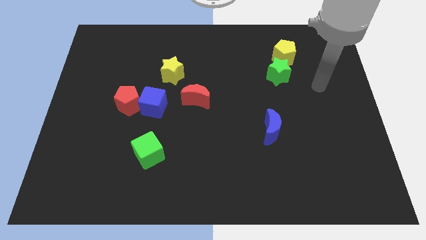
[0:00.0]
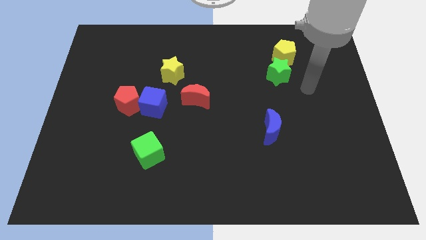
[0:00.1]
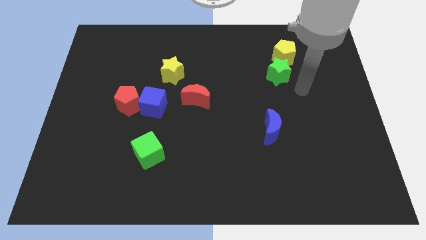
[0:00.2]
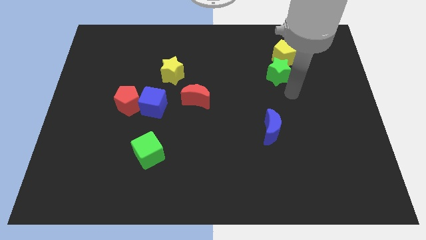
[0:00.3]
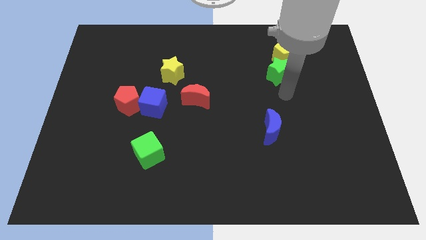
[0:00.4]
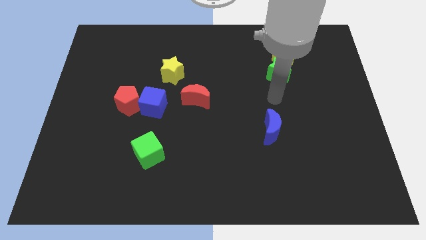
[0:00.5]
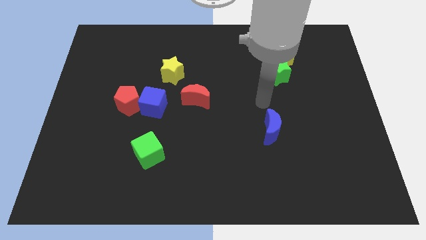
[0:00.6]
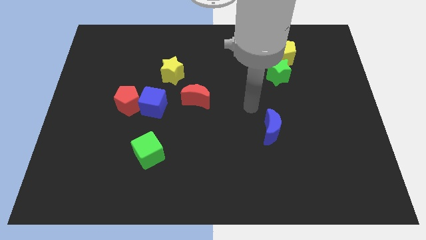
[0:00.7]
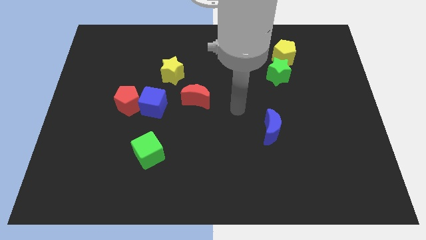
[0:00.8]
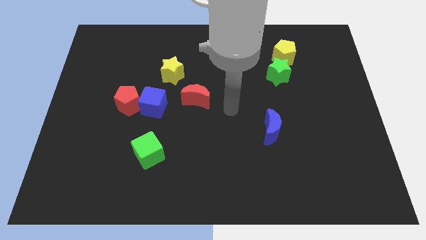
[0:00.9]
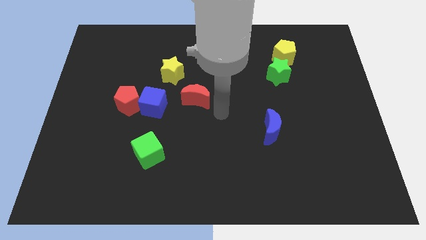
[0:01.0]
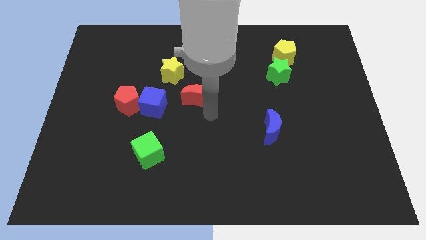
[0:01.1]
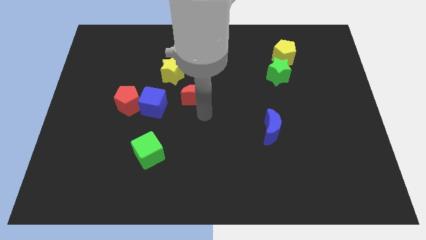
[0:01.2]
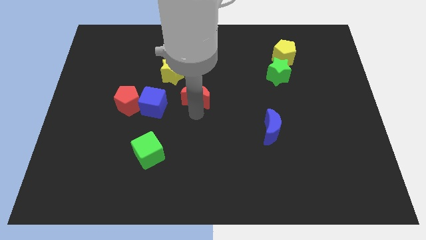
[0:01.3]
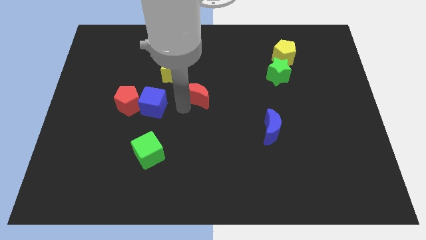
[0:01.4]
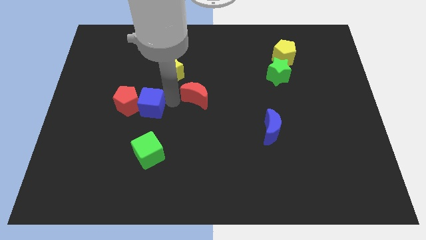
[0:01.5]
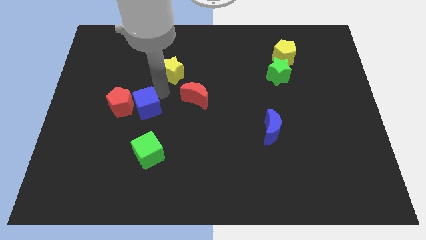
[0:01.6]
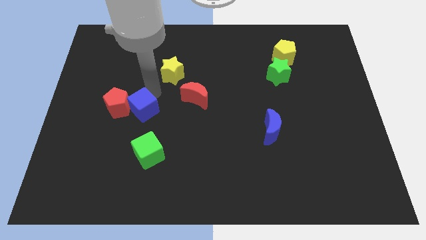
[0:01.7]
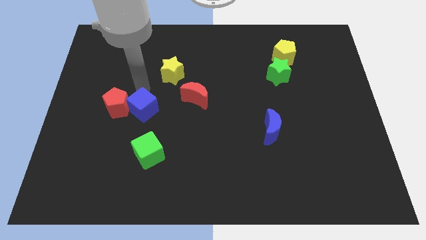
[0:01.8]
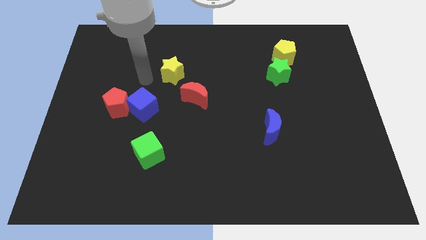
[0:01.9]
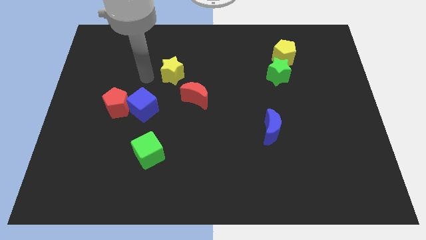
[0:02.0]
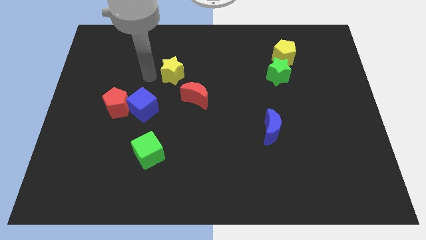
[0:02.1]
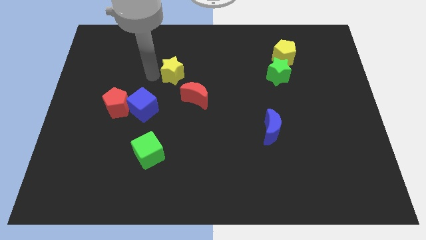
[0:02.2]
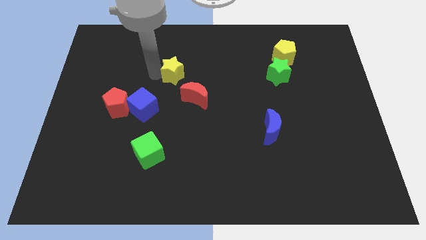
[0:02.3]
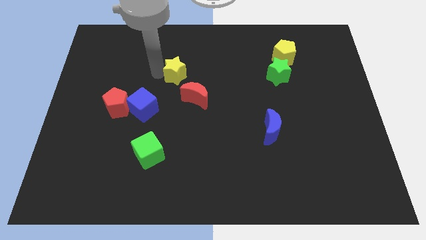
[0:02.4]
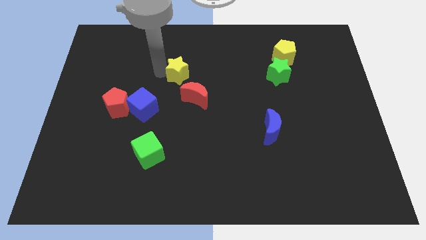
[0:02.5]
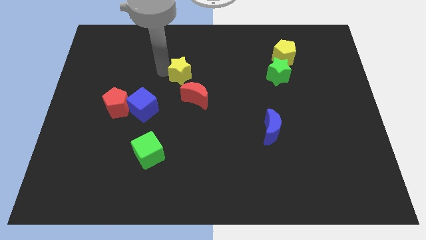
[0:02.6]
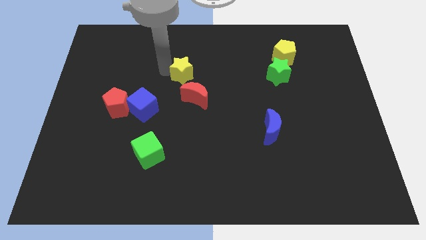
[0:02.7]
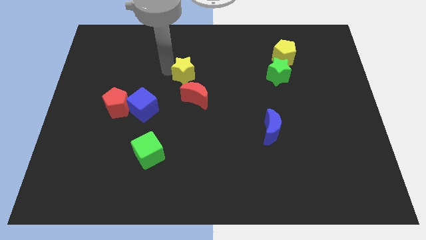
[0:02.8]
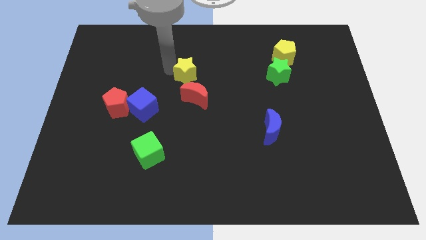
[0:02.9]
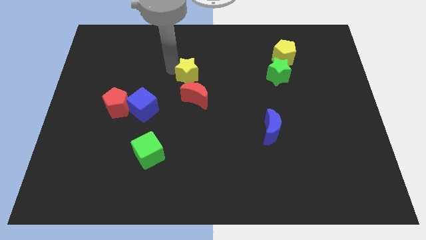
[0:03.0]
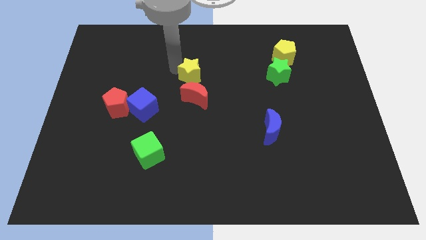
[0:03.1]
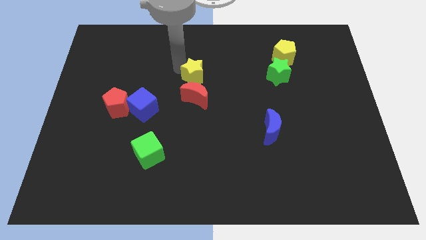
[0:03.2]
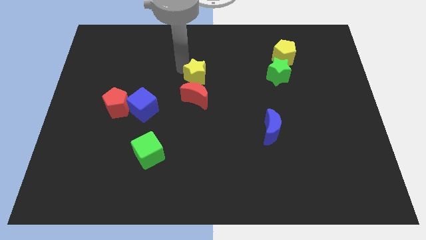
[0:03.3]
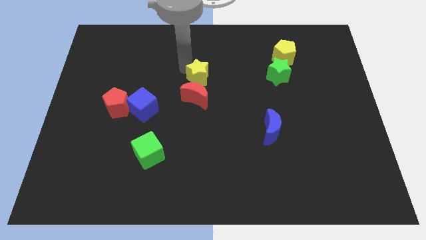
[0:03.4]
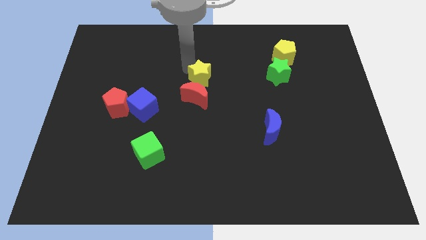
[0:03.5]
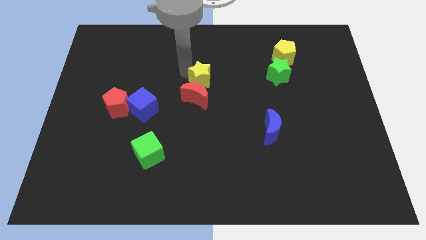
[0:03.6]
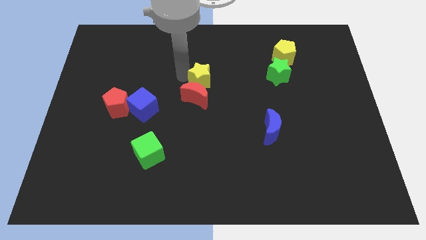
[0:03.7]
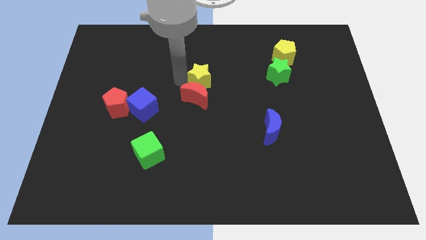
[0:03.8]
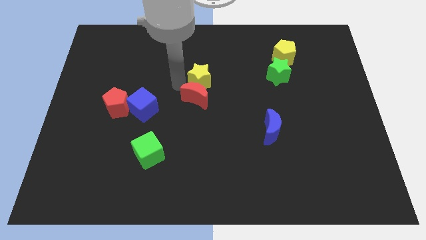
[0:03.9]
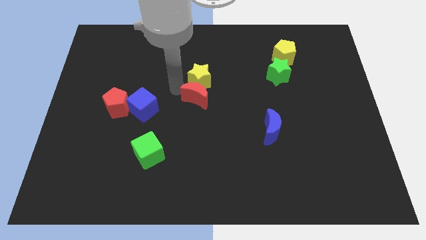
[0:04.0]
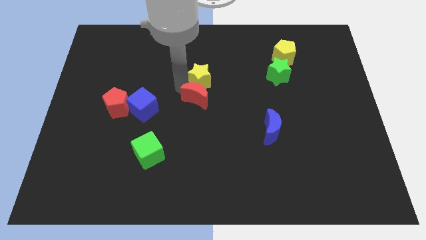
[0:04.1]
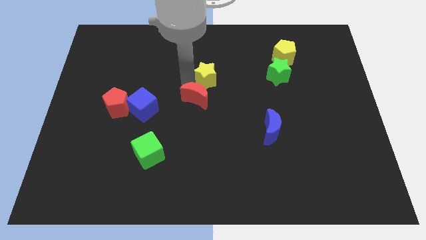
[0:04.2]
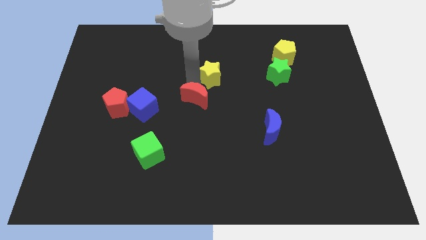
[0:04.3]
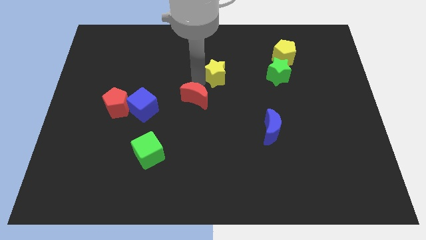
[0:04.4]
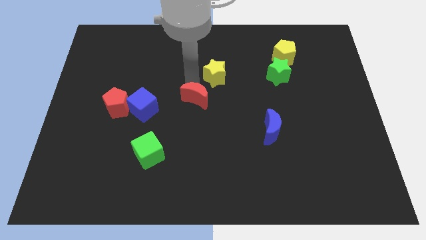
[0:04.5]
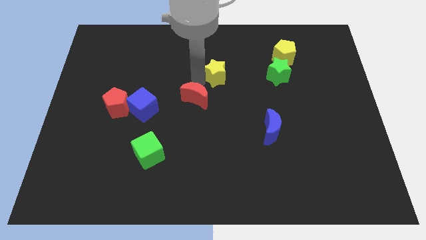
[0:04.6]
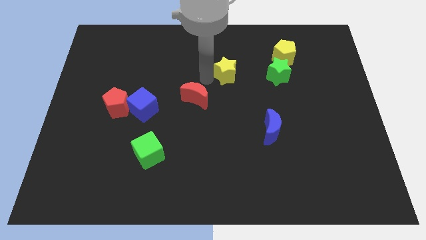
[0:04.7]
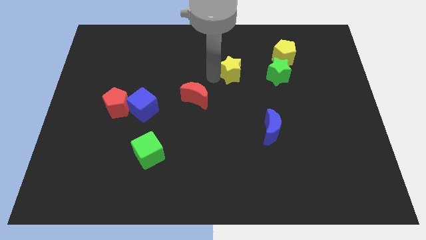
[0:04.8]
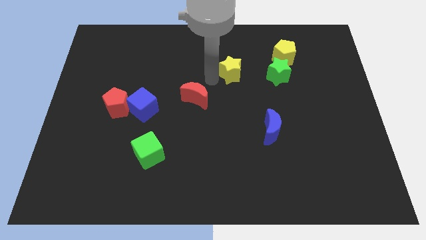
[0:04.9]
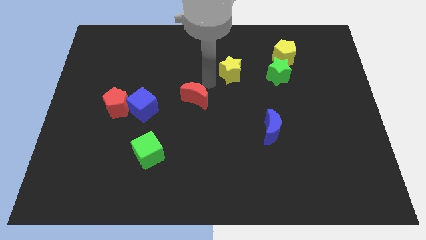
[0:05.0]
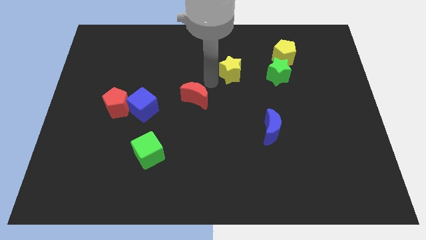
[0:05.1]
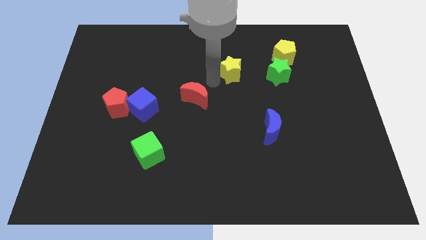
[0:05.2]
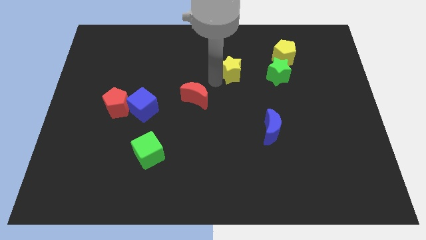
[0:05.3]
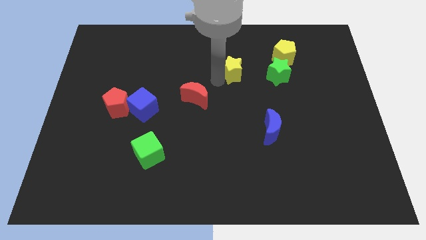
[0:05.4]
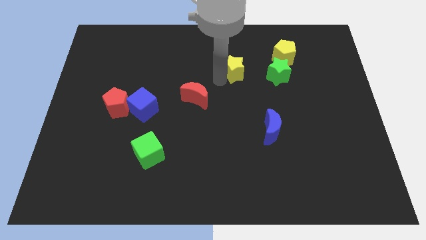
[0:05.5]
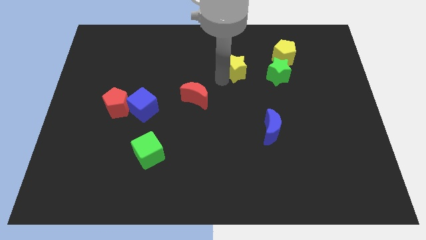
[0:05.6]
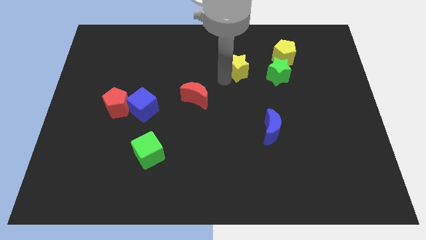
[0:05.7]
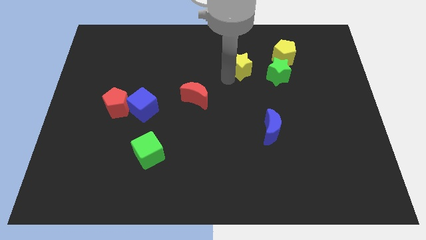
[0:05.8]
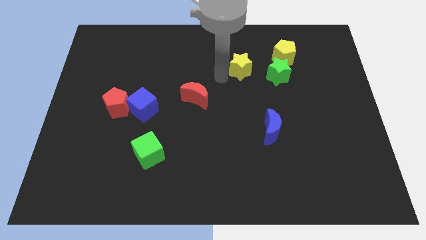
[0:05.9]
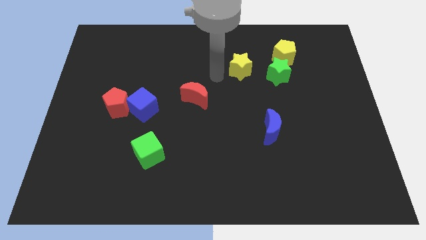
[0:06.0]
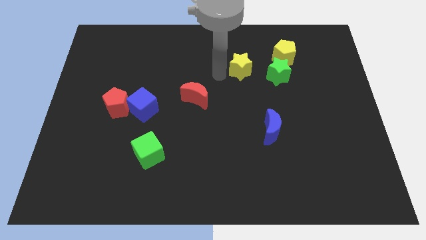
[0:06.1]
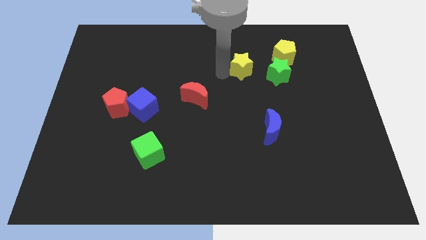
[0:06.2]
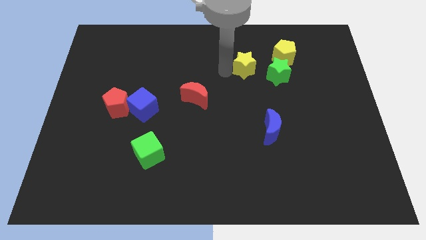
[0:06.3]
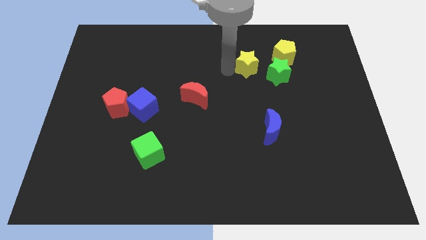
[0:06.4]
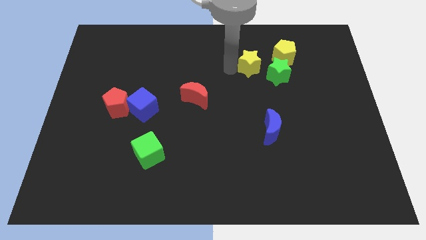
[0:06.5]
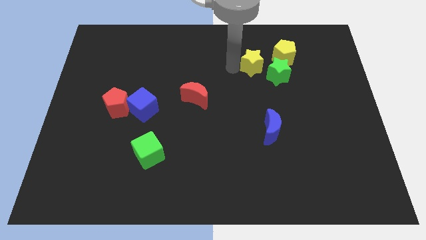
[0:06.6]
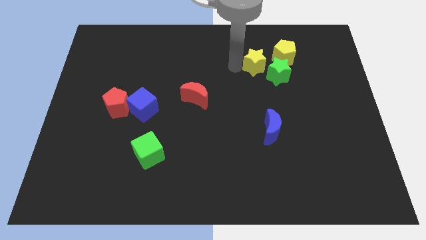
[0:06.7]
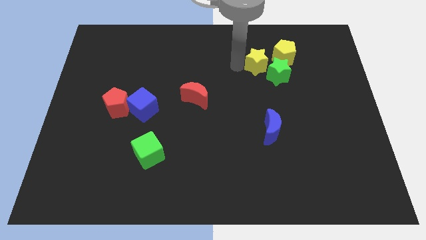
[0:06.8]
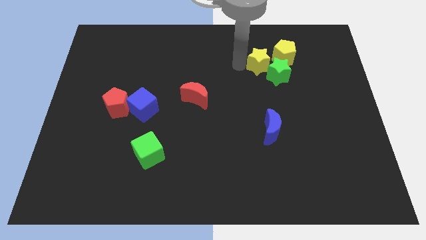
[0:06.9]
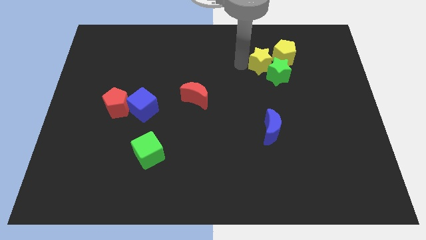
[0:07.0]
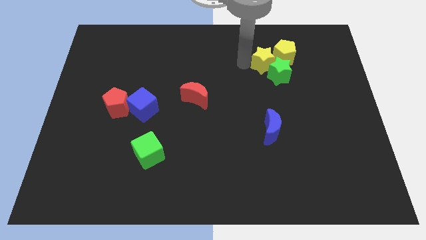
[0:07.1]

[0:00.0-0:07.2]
slide the yellow star to the yellow pentagon

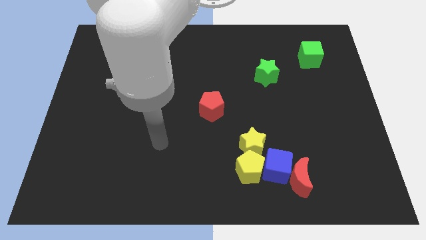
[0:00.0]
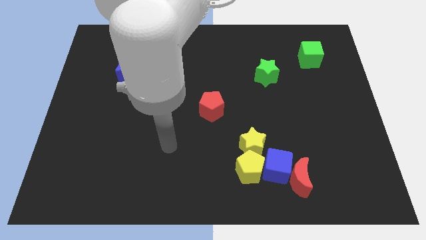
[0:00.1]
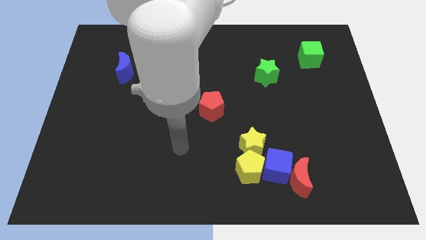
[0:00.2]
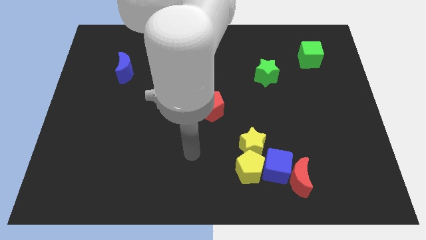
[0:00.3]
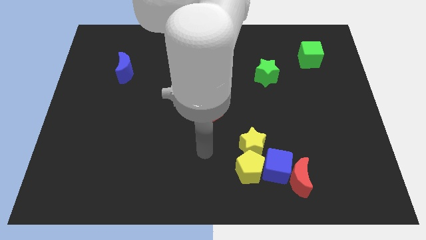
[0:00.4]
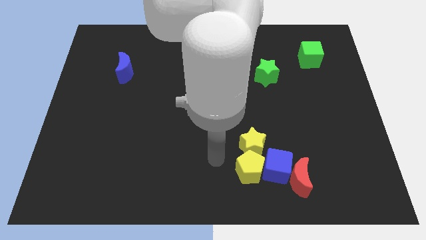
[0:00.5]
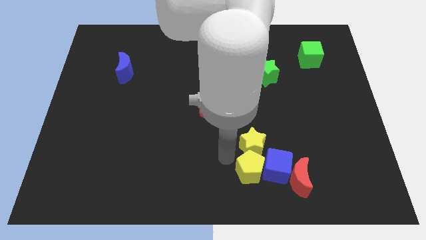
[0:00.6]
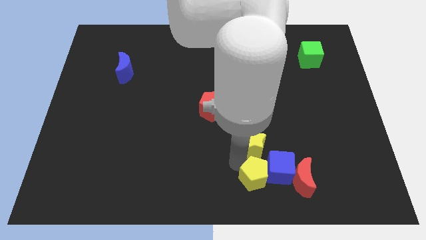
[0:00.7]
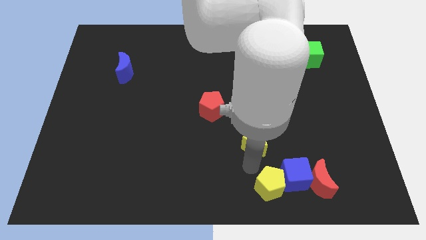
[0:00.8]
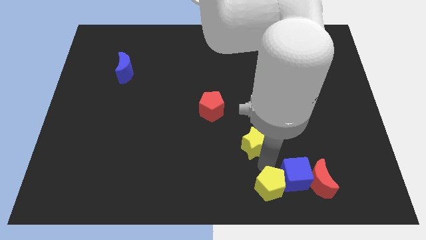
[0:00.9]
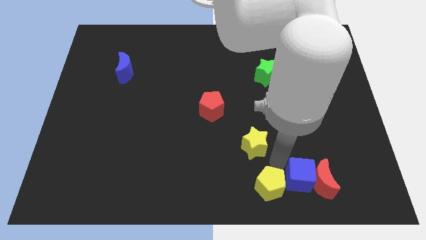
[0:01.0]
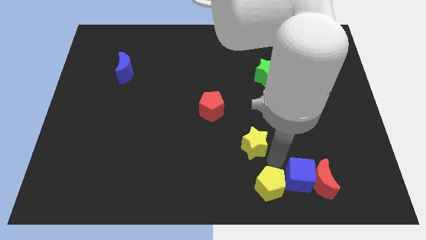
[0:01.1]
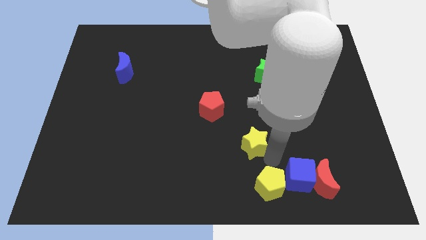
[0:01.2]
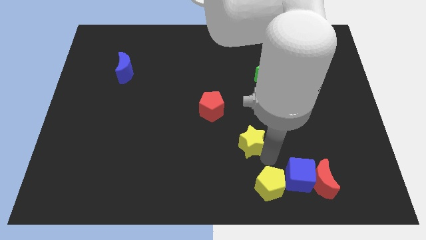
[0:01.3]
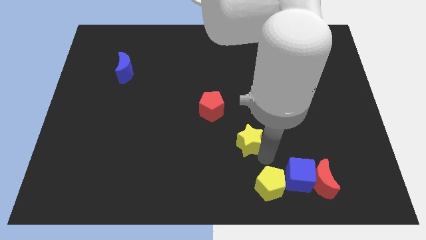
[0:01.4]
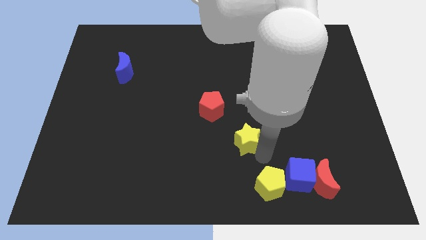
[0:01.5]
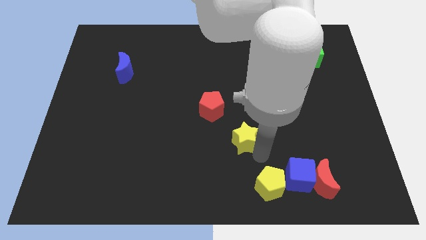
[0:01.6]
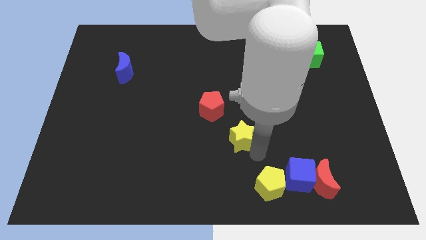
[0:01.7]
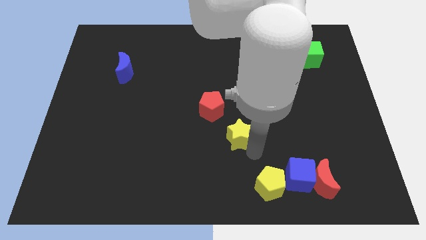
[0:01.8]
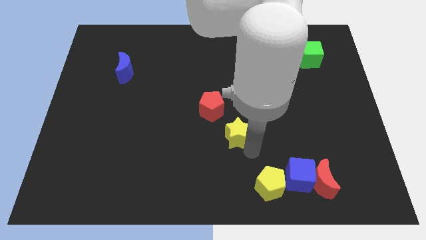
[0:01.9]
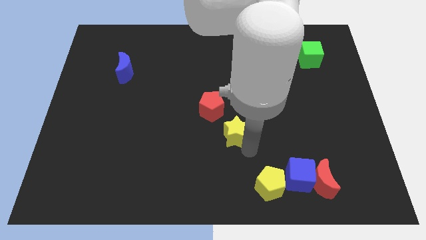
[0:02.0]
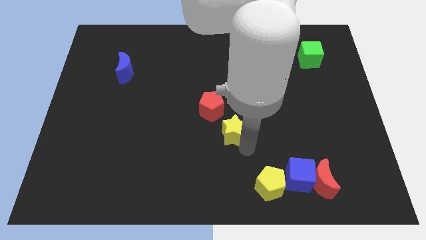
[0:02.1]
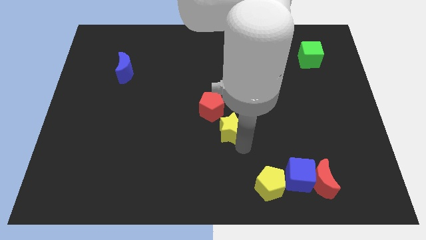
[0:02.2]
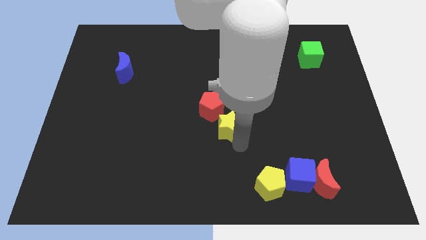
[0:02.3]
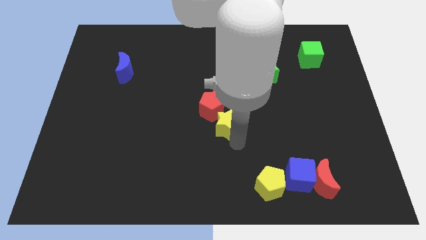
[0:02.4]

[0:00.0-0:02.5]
push the yellow star close to the red pentagon
